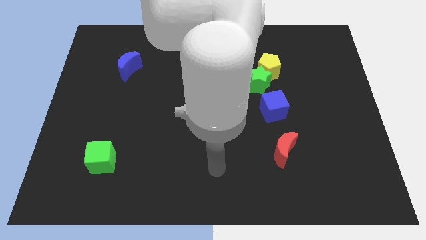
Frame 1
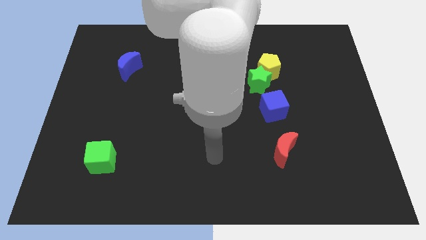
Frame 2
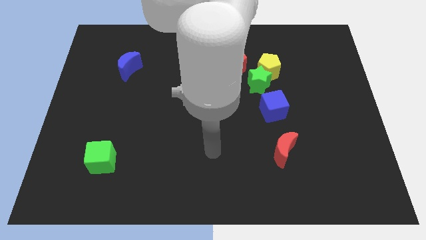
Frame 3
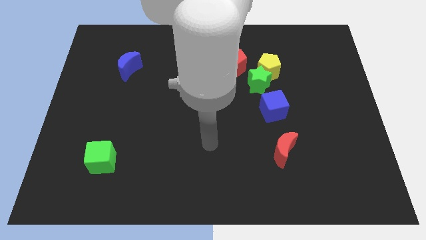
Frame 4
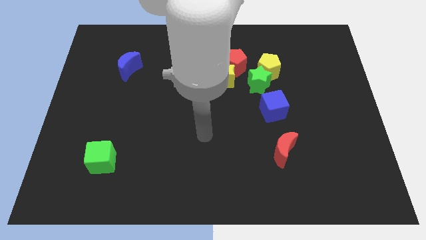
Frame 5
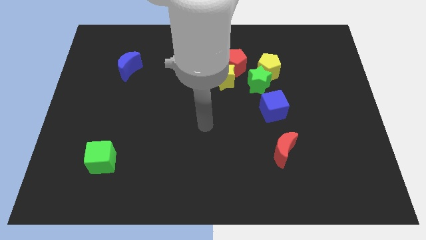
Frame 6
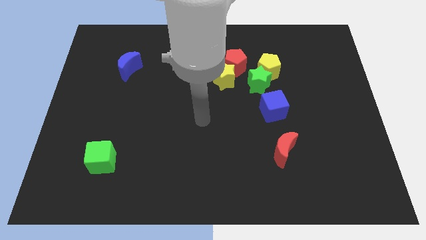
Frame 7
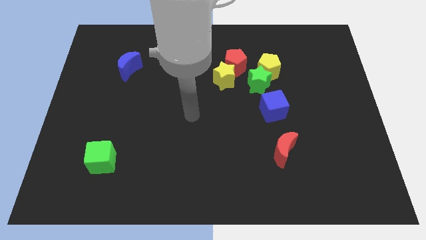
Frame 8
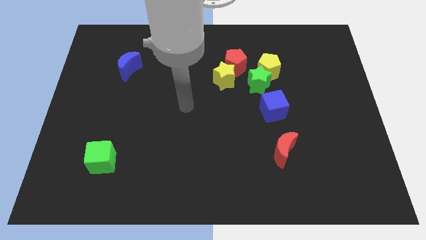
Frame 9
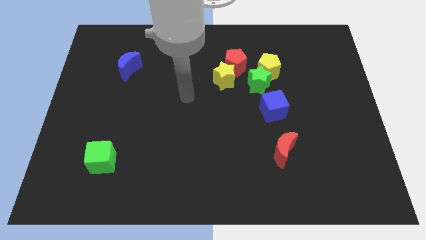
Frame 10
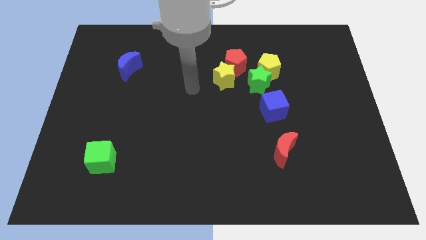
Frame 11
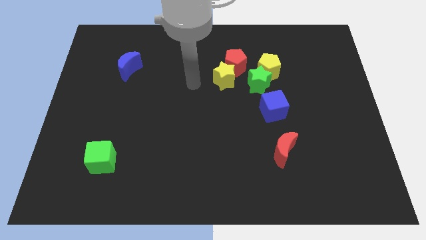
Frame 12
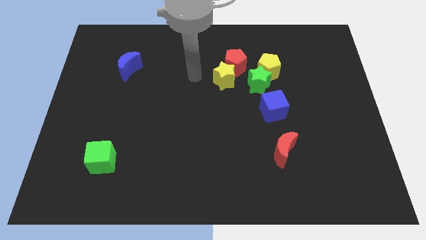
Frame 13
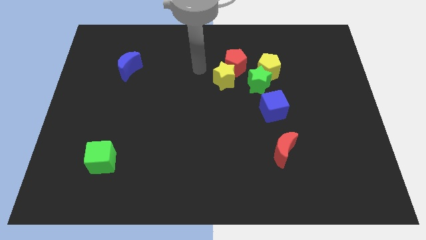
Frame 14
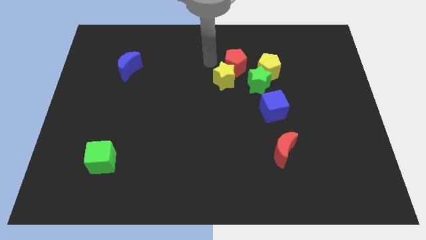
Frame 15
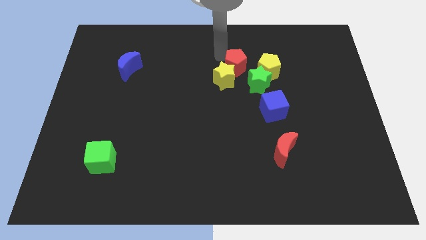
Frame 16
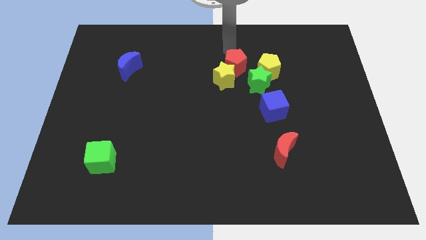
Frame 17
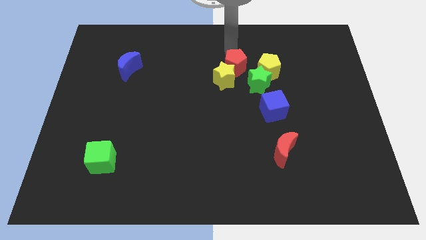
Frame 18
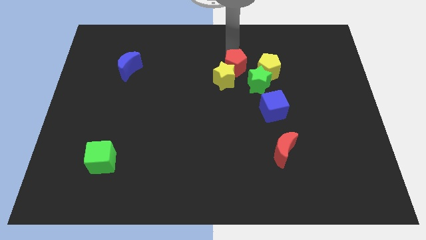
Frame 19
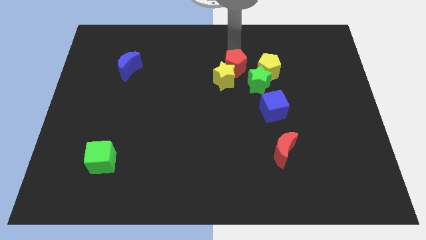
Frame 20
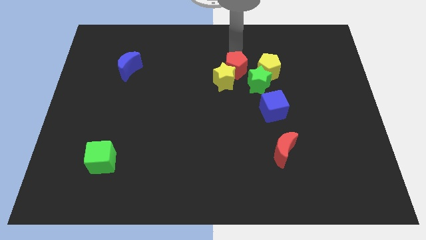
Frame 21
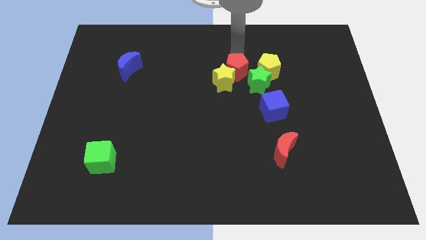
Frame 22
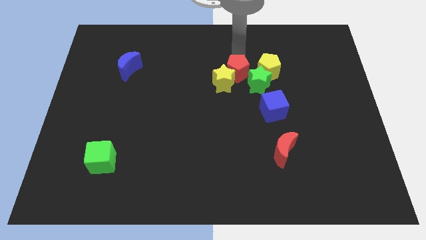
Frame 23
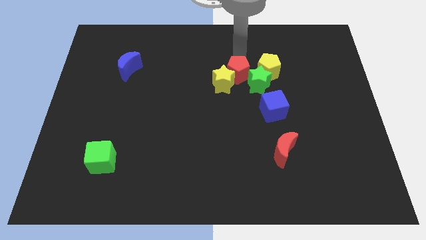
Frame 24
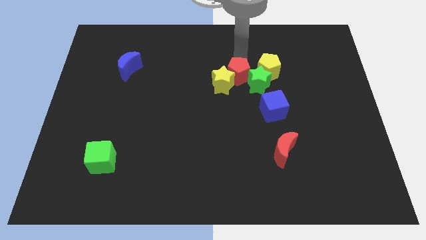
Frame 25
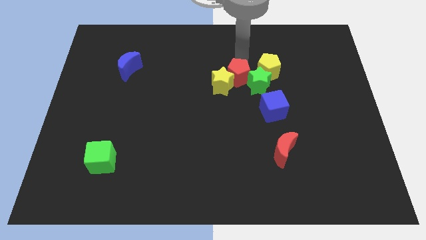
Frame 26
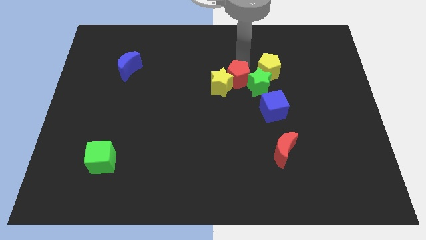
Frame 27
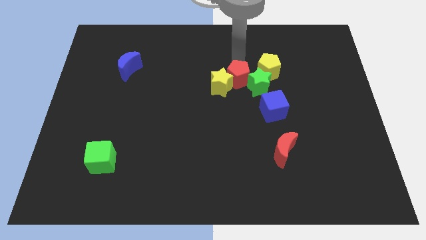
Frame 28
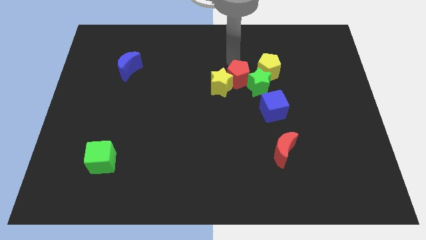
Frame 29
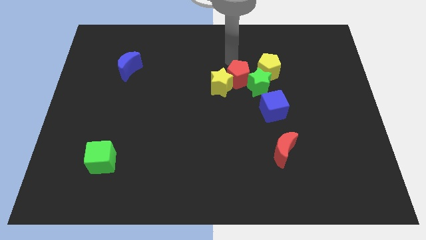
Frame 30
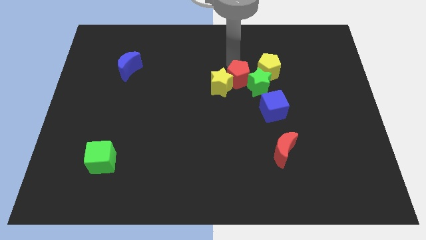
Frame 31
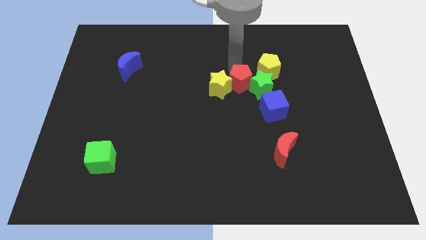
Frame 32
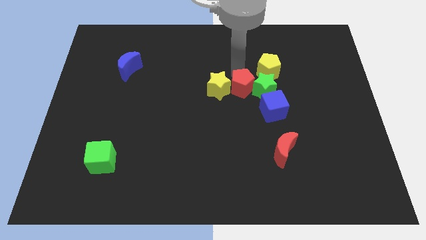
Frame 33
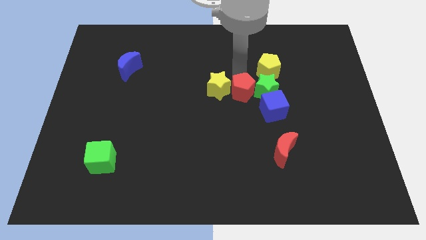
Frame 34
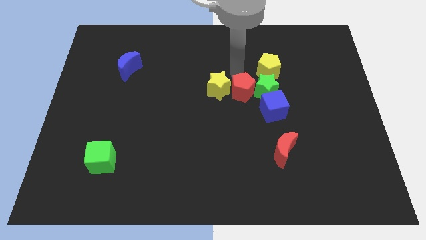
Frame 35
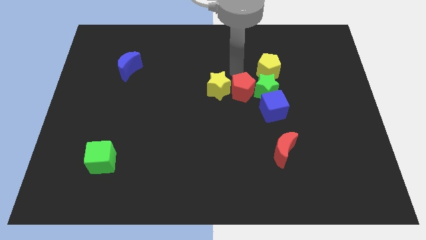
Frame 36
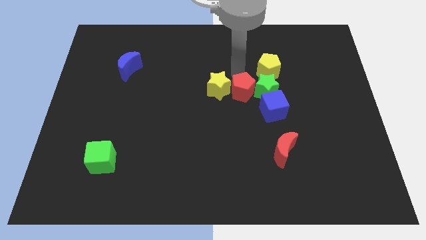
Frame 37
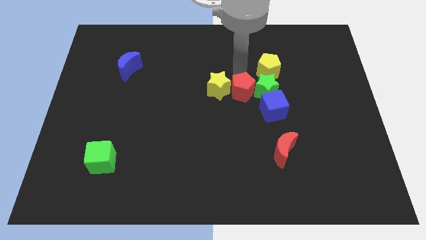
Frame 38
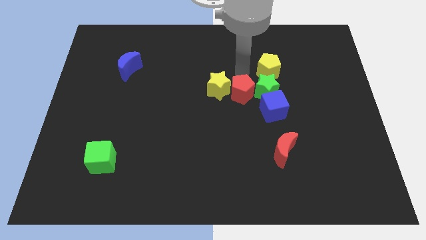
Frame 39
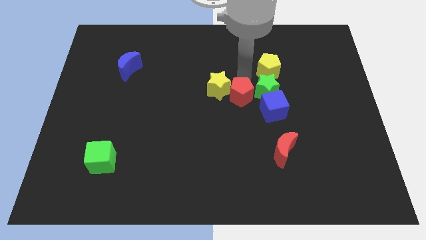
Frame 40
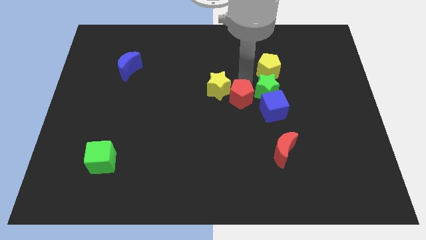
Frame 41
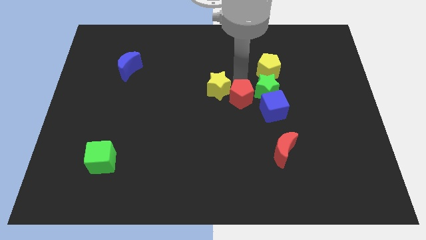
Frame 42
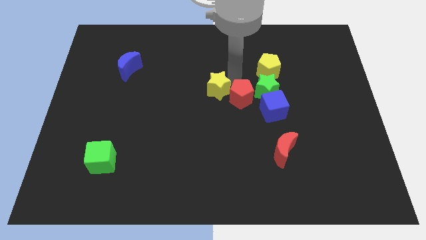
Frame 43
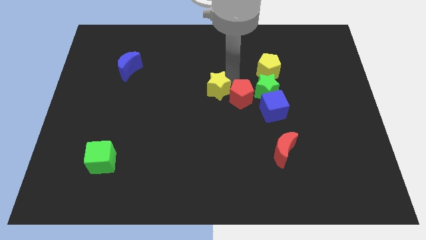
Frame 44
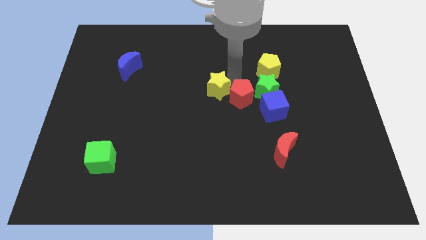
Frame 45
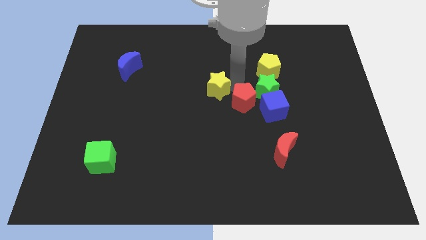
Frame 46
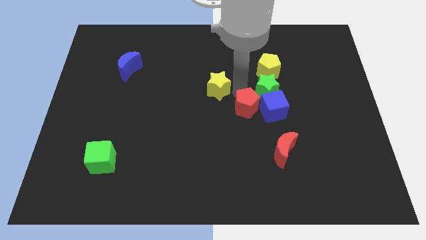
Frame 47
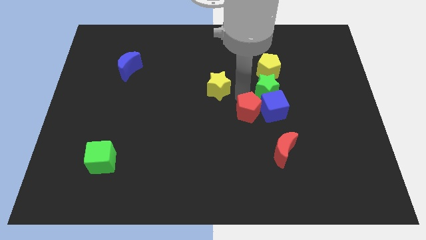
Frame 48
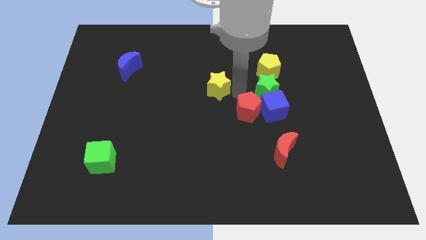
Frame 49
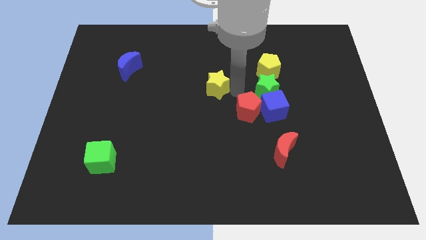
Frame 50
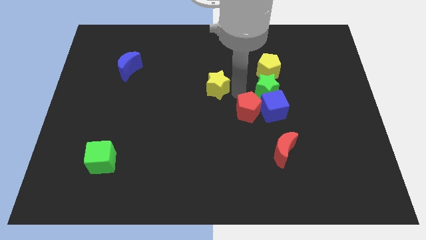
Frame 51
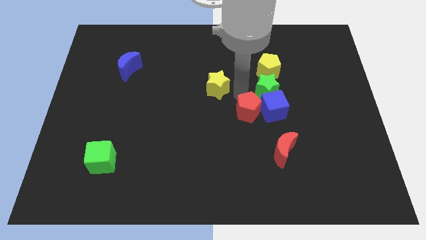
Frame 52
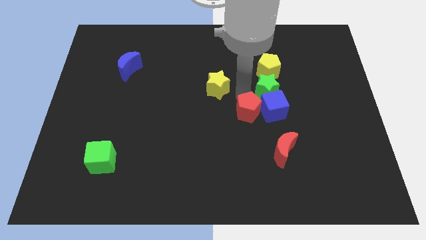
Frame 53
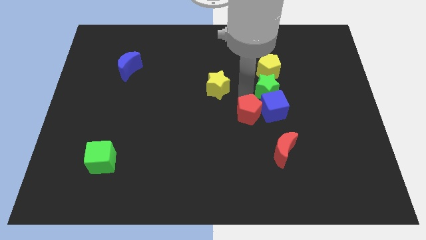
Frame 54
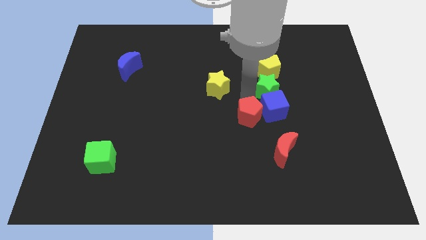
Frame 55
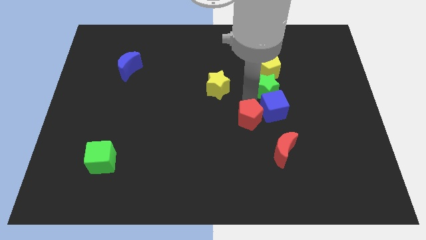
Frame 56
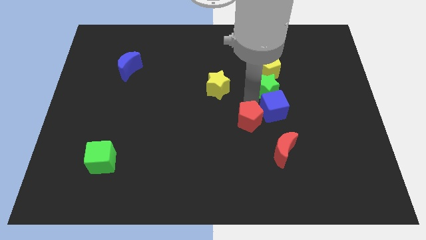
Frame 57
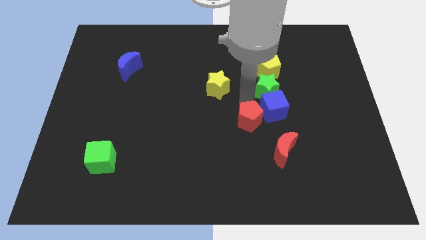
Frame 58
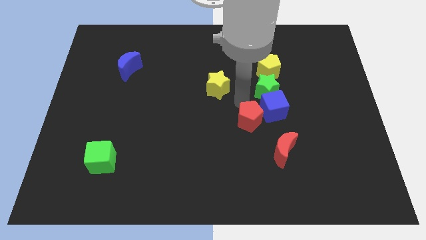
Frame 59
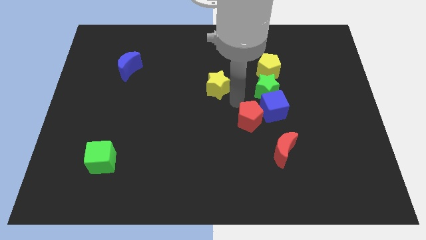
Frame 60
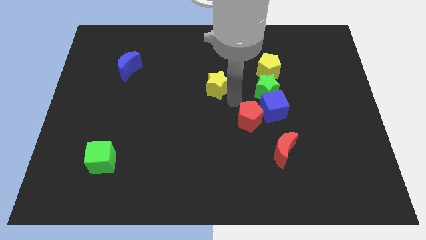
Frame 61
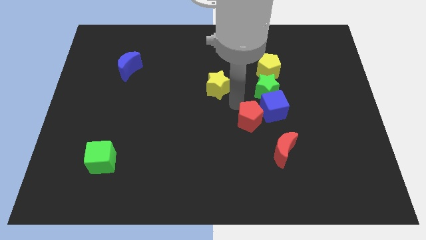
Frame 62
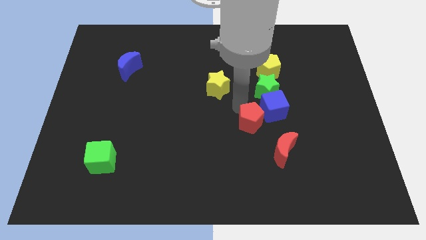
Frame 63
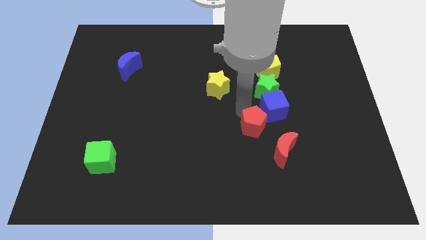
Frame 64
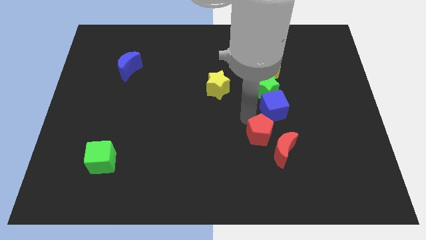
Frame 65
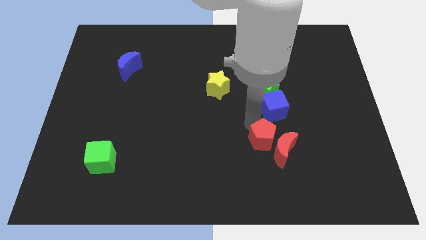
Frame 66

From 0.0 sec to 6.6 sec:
put the red pentagon towards the red moon

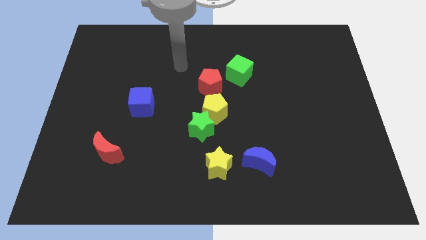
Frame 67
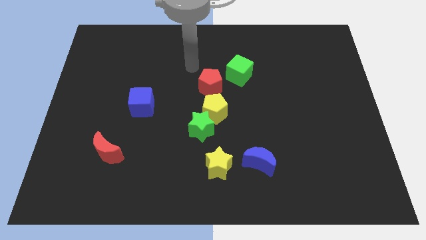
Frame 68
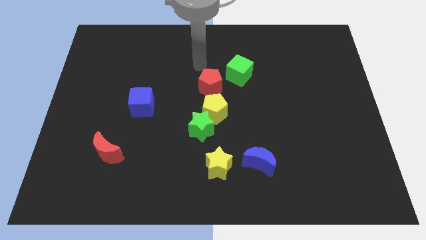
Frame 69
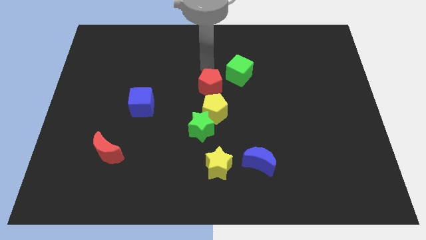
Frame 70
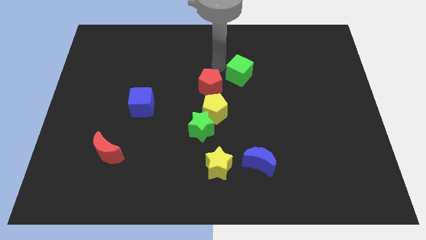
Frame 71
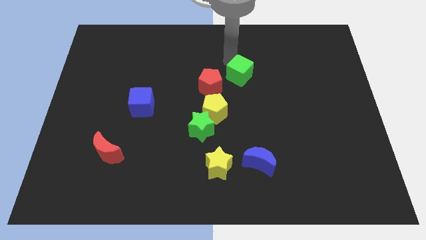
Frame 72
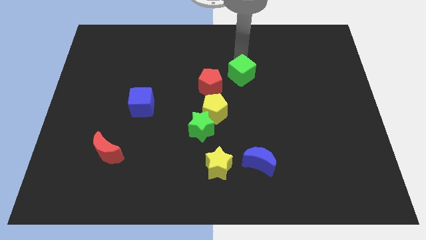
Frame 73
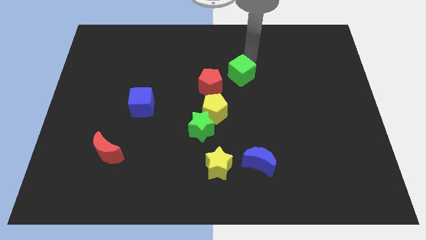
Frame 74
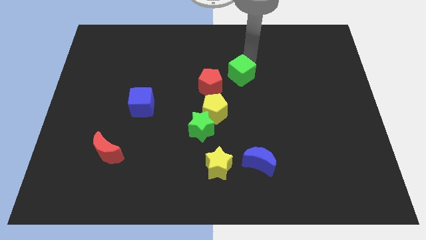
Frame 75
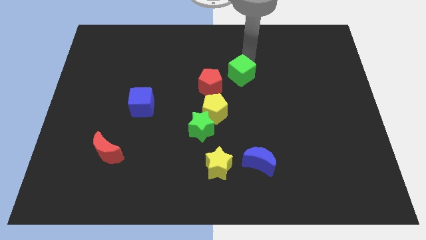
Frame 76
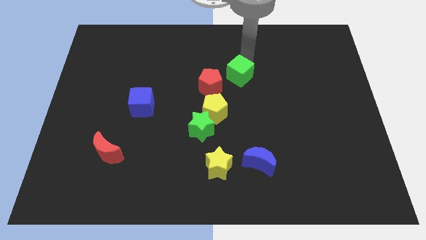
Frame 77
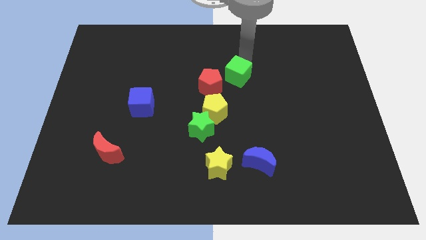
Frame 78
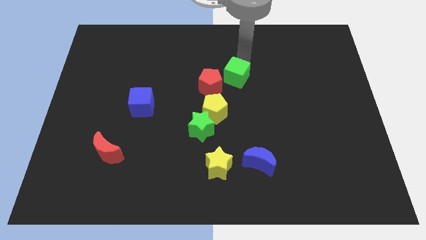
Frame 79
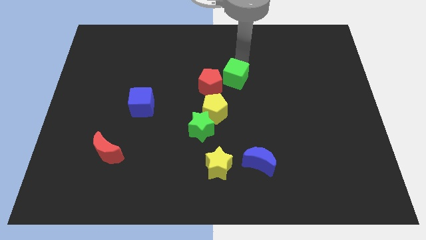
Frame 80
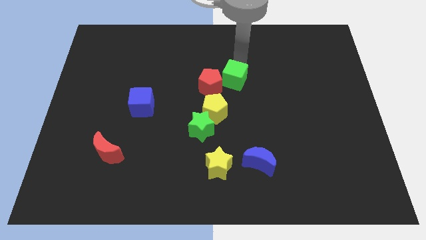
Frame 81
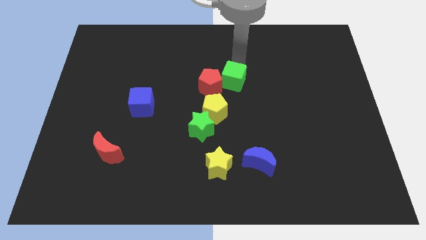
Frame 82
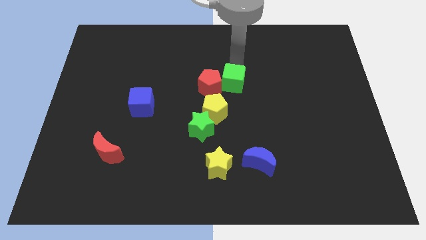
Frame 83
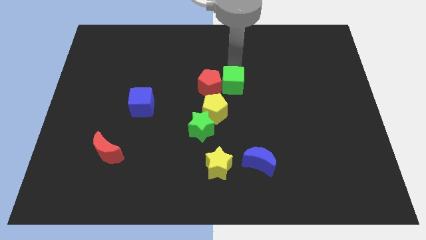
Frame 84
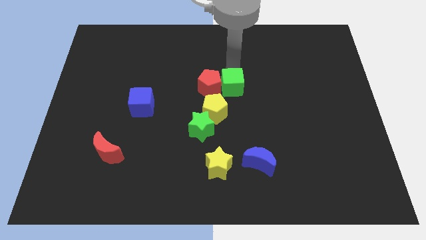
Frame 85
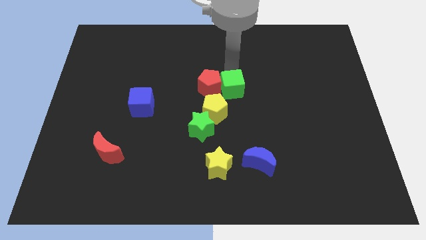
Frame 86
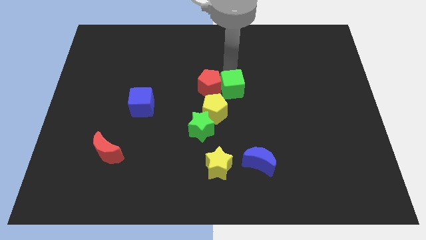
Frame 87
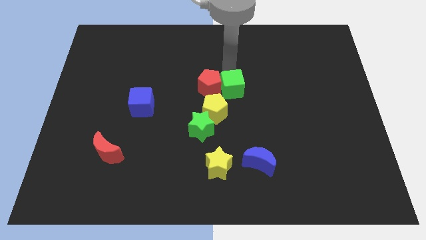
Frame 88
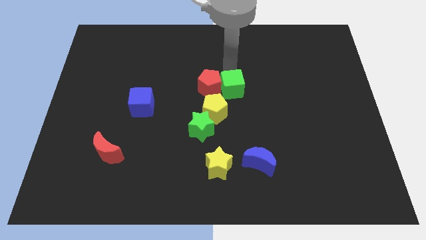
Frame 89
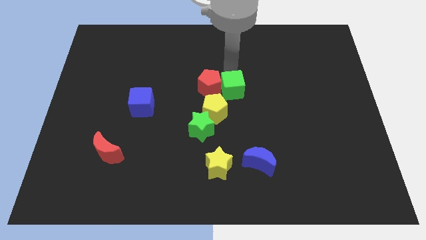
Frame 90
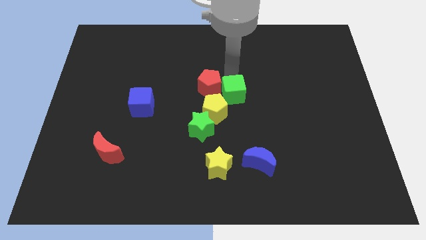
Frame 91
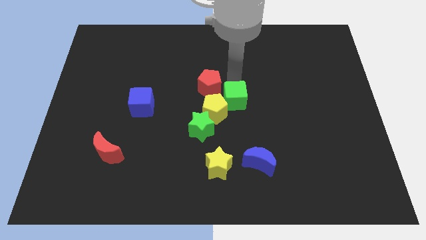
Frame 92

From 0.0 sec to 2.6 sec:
put the green cube next to the yellow pentagon
